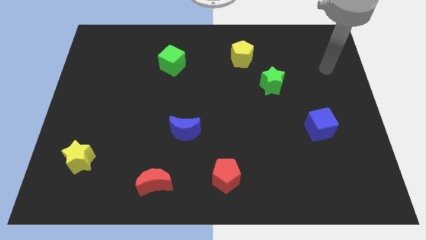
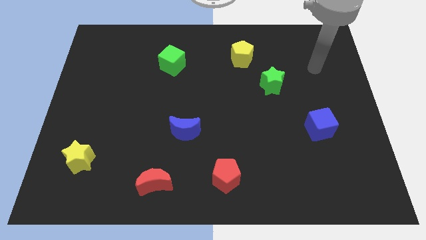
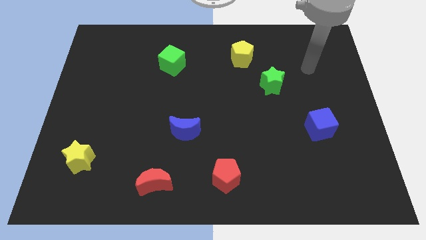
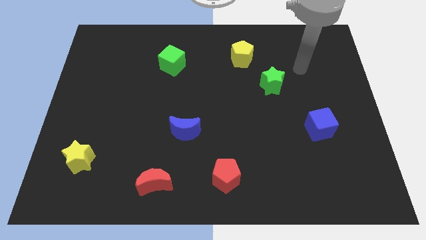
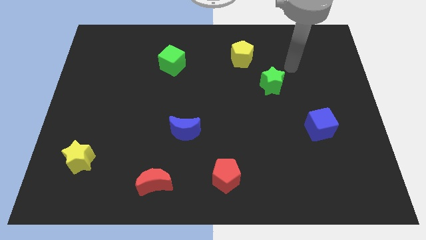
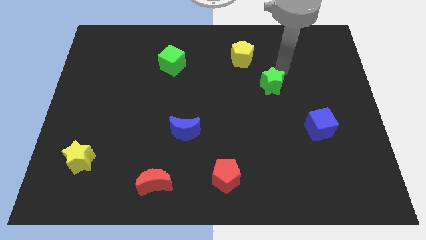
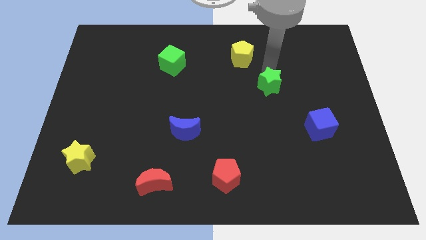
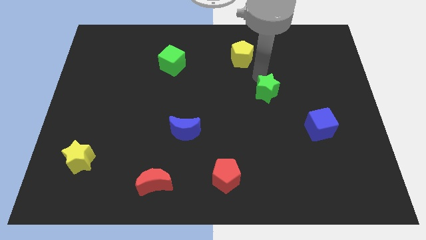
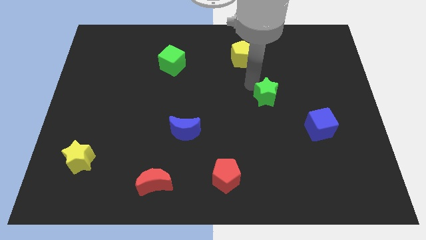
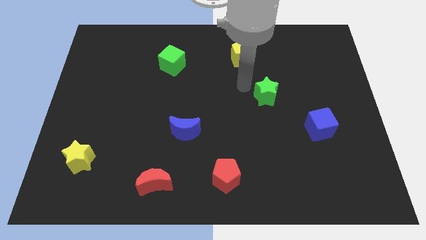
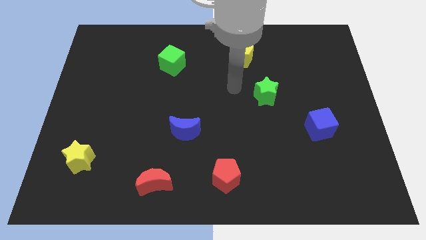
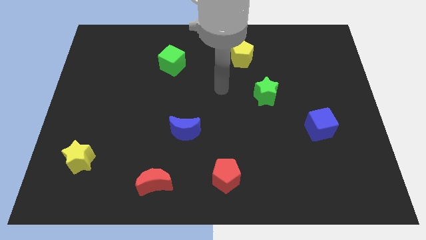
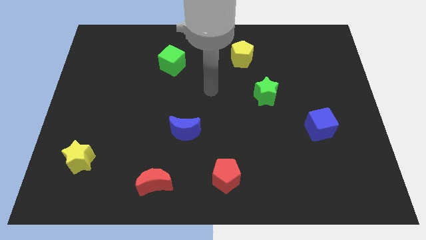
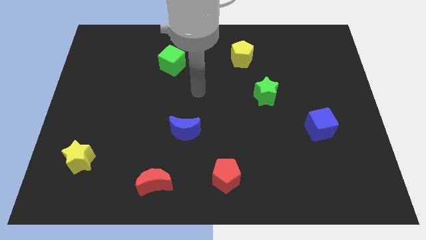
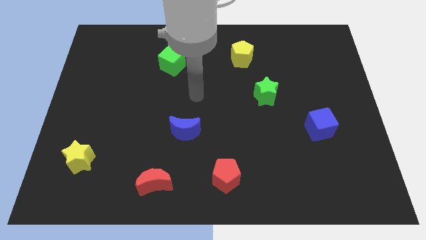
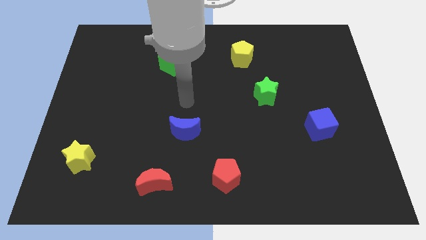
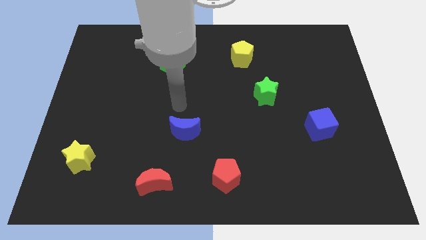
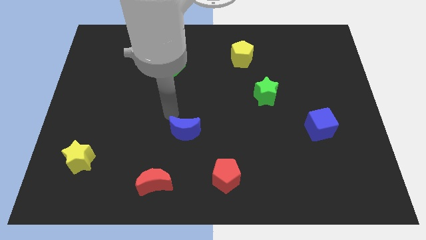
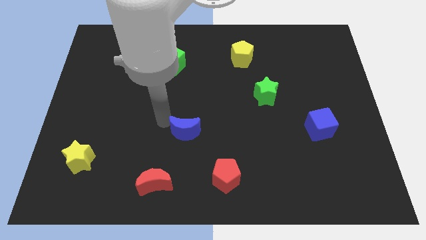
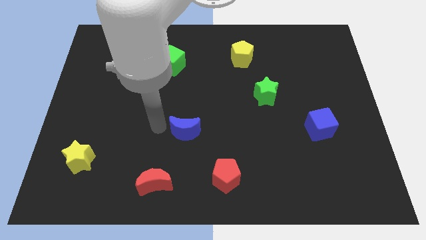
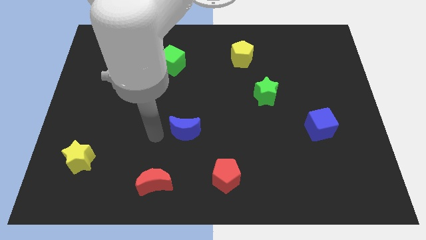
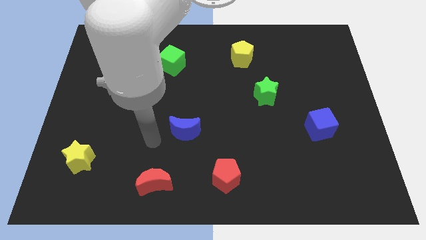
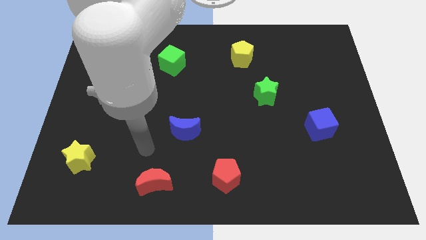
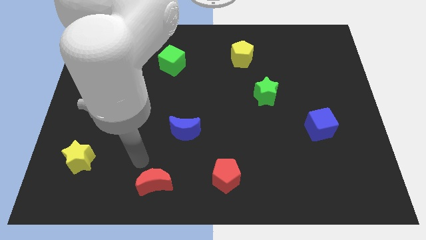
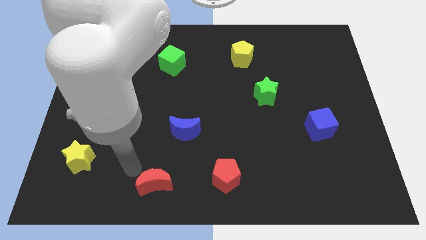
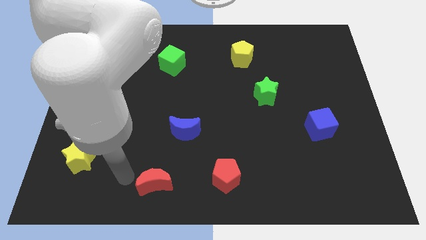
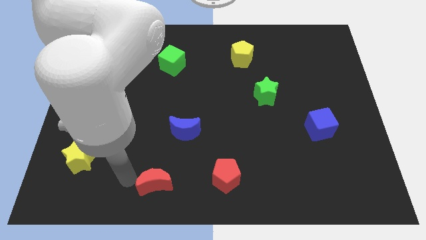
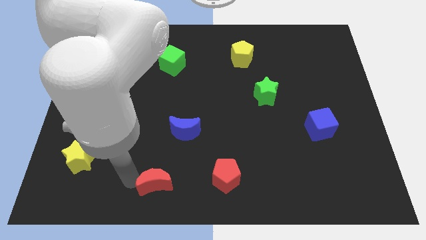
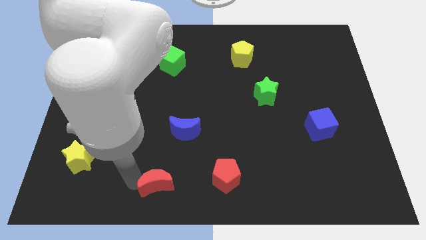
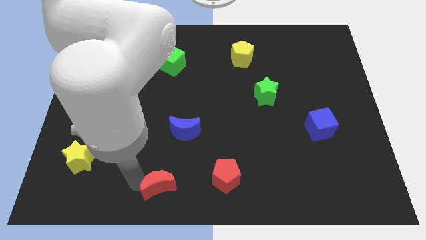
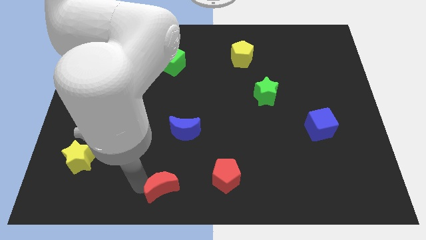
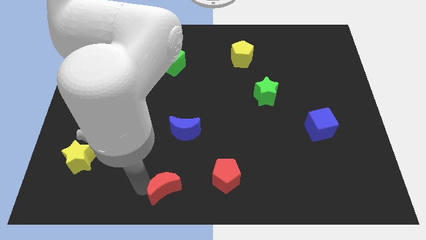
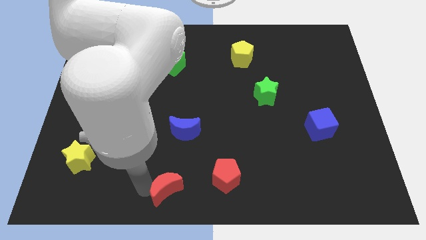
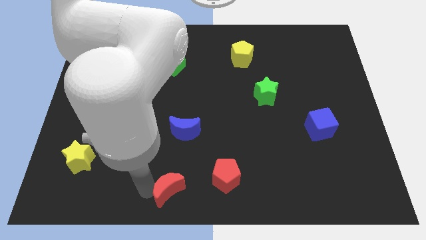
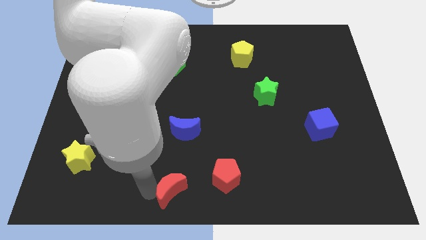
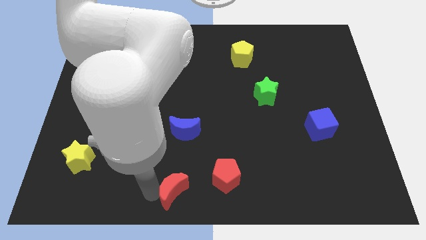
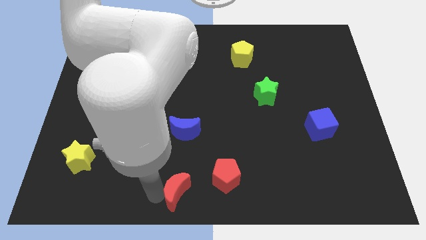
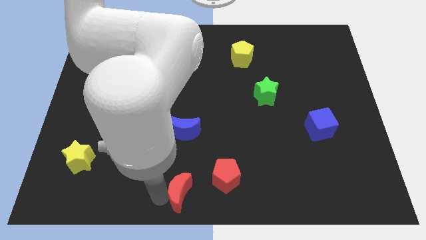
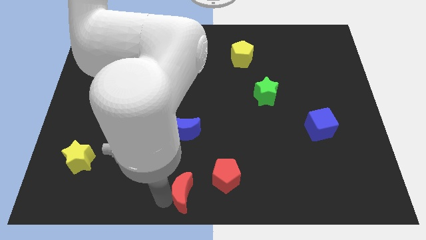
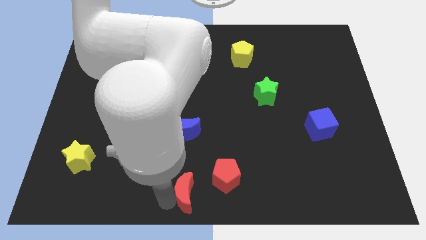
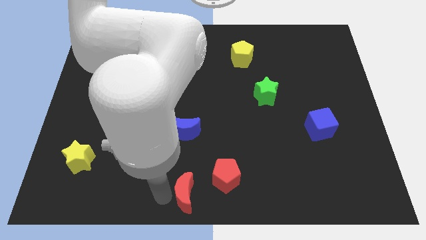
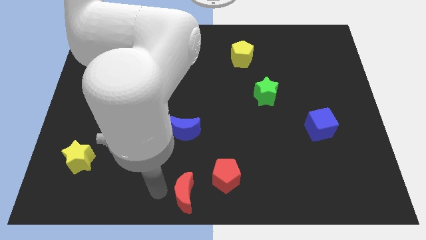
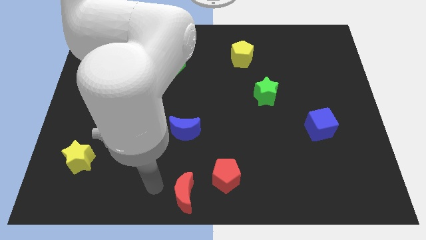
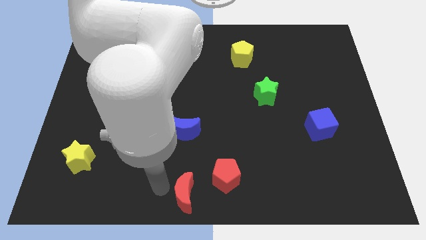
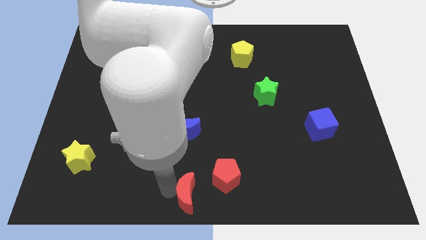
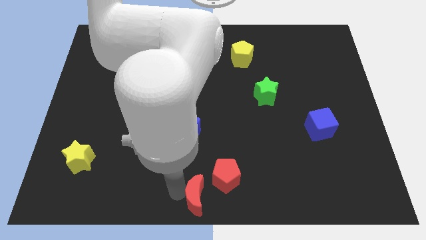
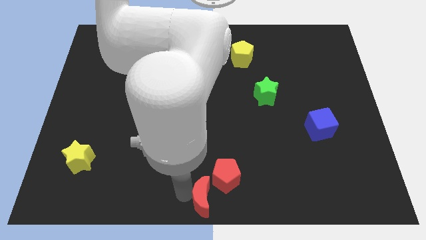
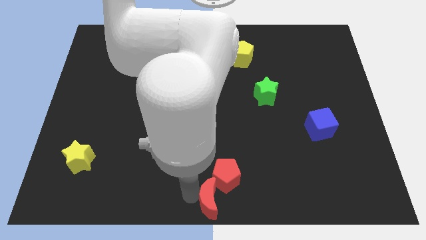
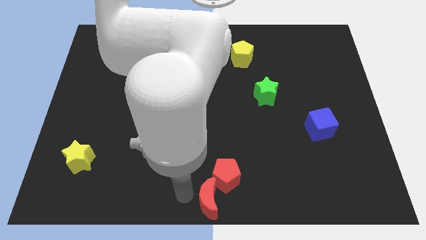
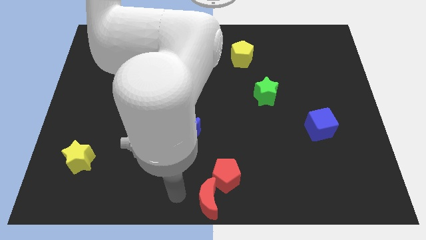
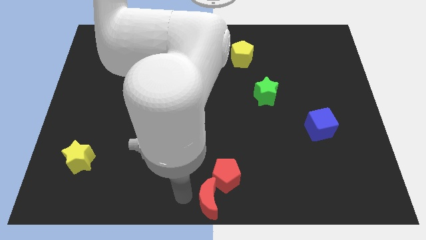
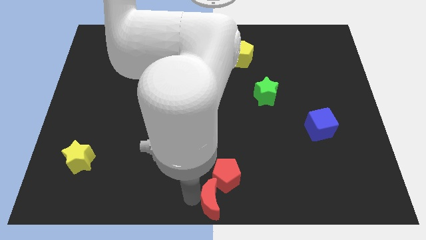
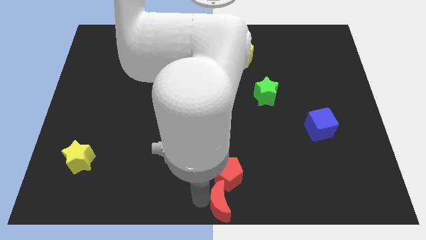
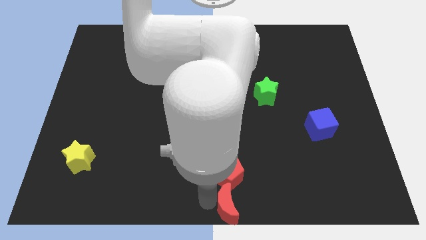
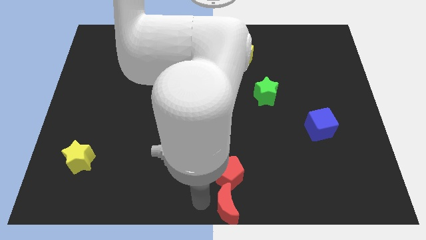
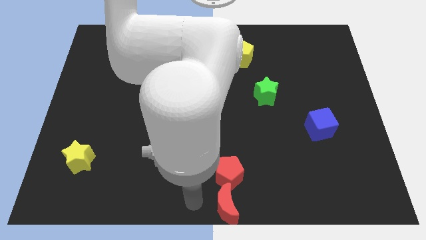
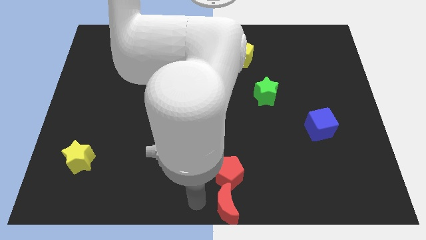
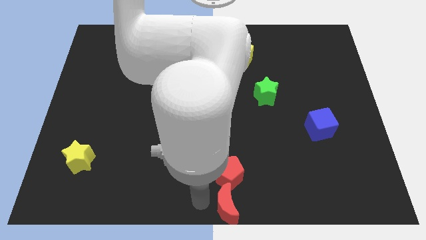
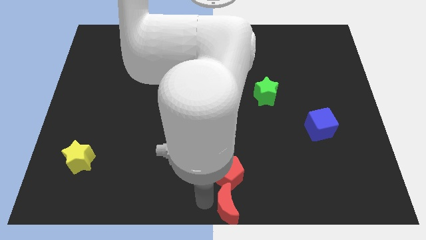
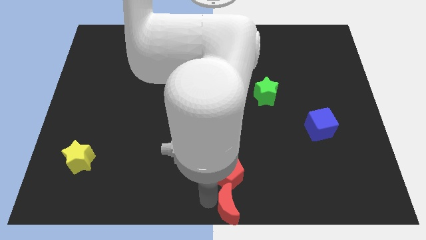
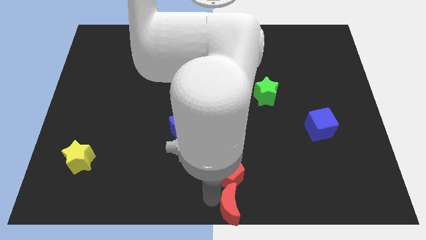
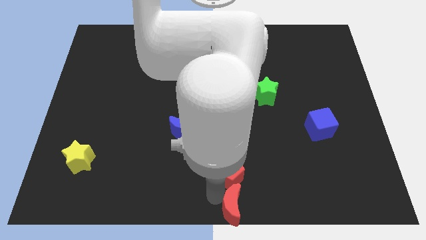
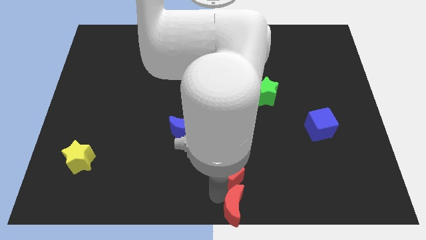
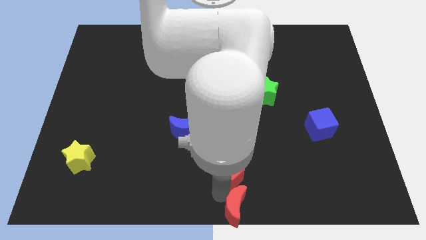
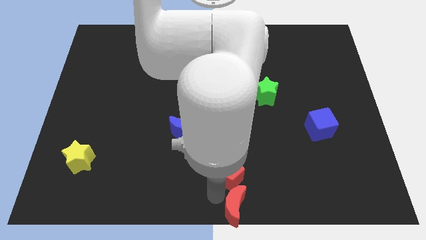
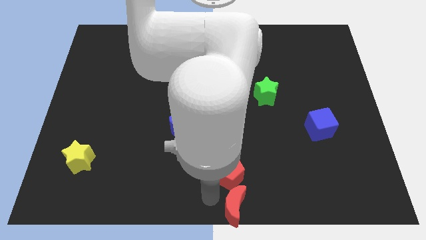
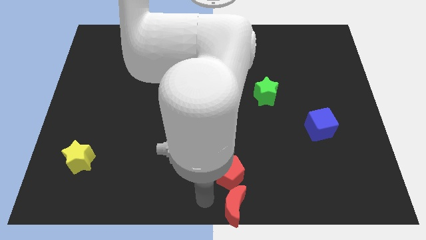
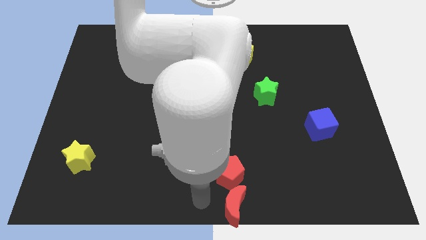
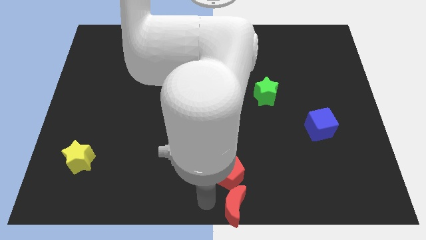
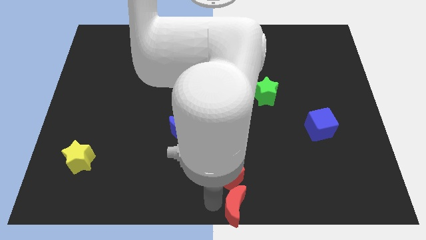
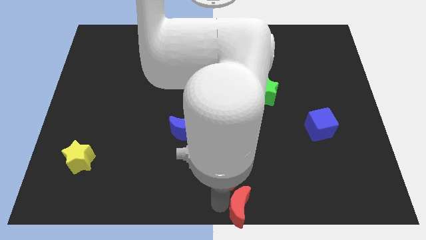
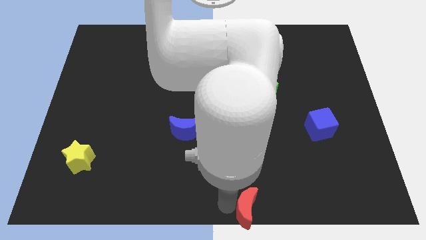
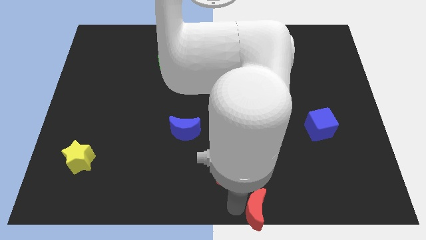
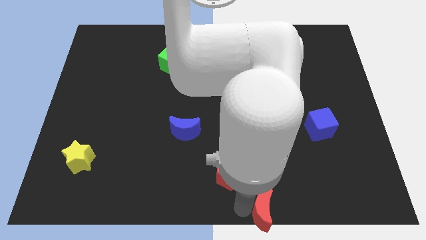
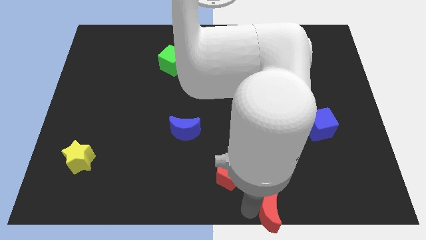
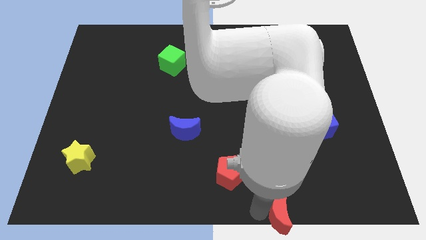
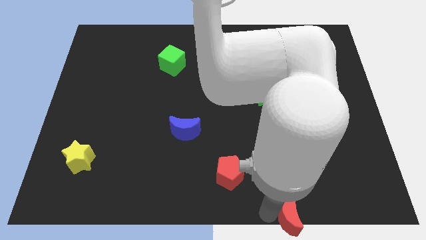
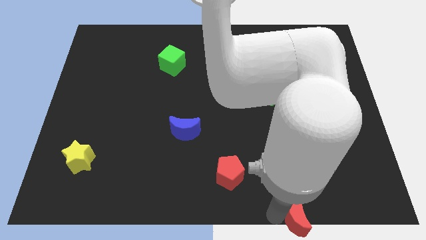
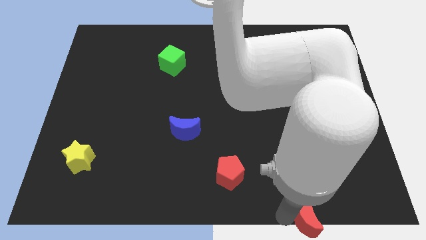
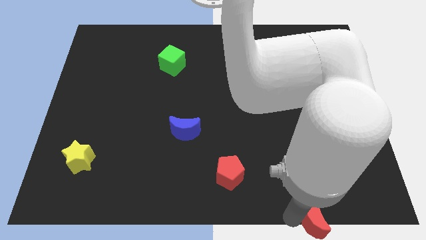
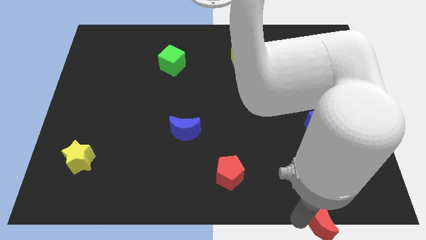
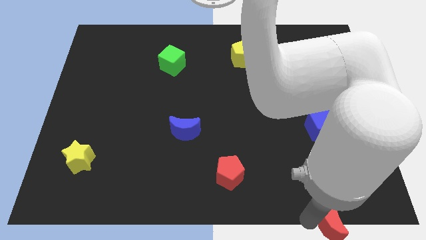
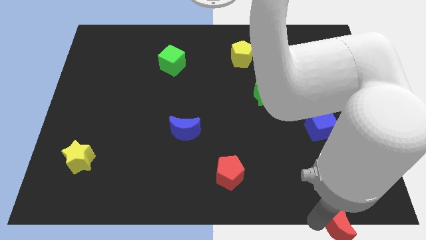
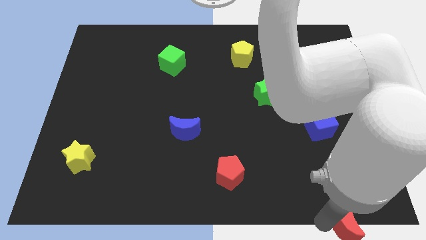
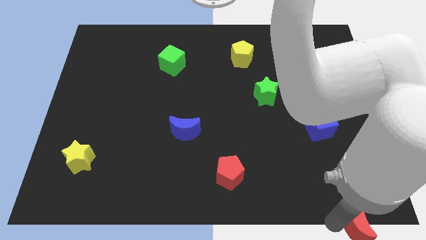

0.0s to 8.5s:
slide the red moon to the bottom right of the board
